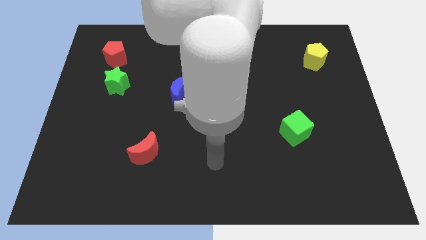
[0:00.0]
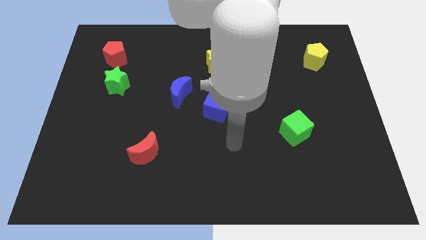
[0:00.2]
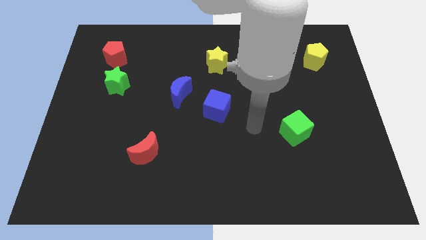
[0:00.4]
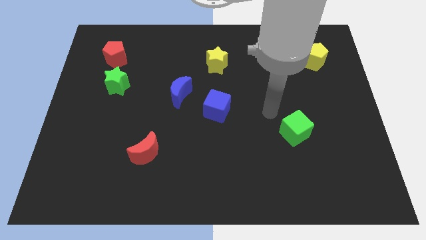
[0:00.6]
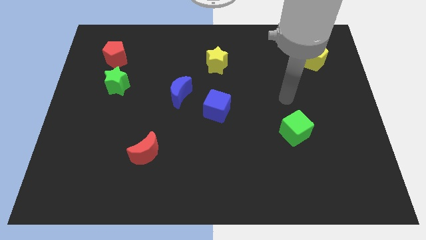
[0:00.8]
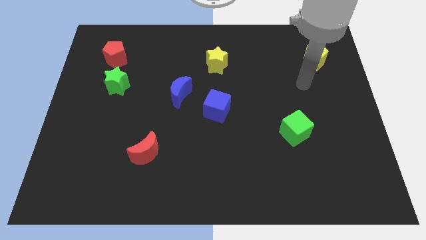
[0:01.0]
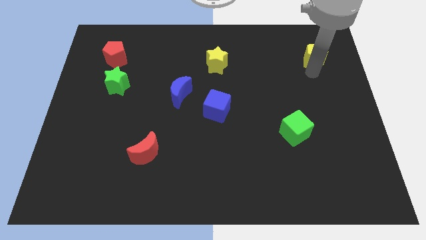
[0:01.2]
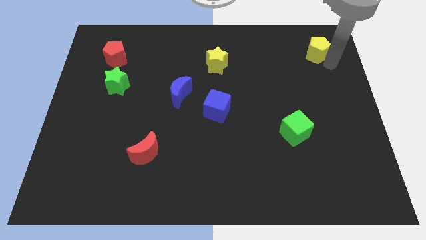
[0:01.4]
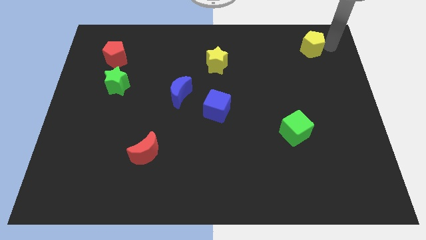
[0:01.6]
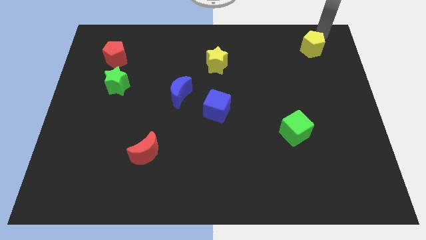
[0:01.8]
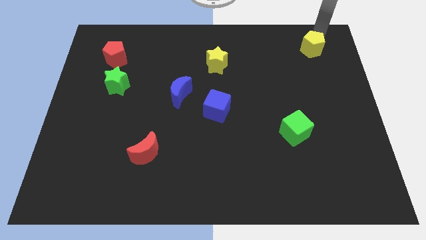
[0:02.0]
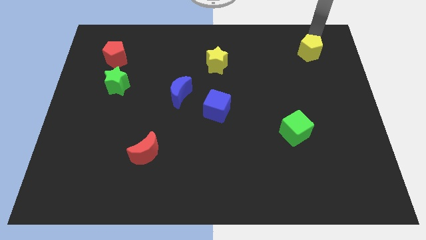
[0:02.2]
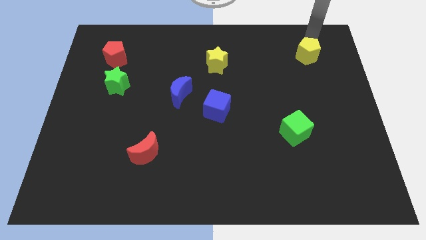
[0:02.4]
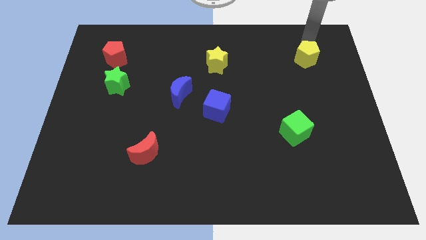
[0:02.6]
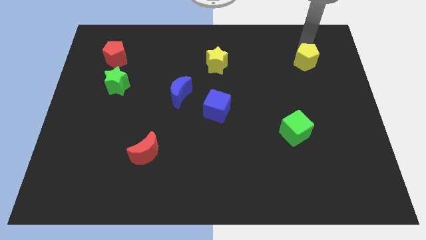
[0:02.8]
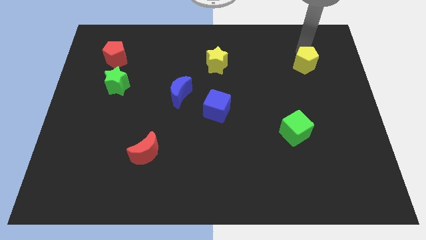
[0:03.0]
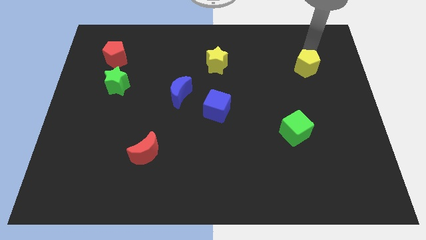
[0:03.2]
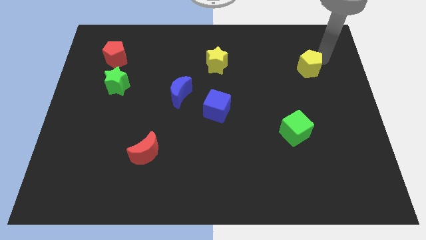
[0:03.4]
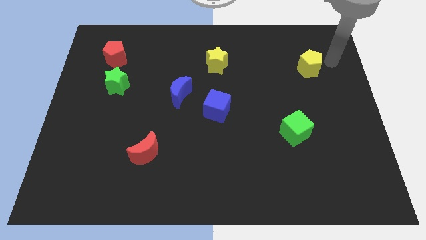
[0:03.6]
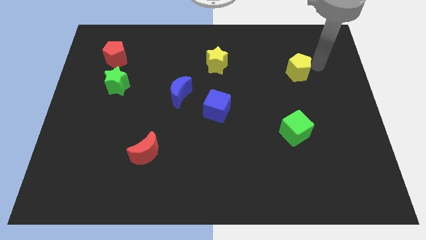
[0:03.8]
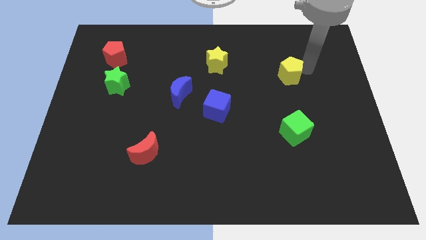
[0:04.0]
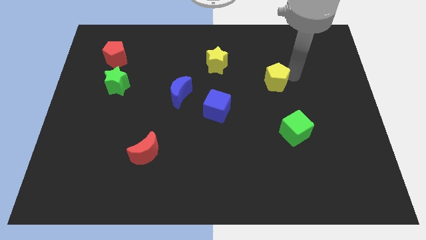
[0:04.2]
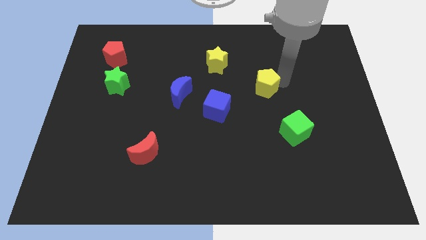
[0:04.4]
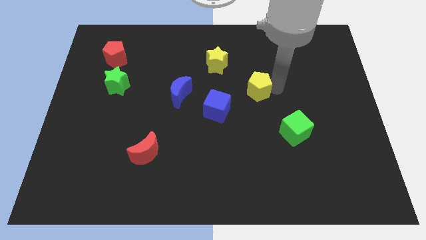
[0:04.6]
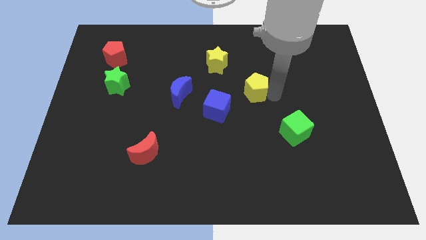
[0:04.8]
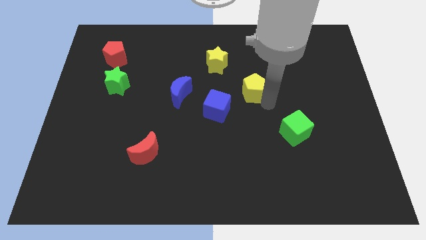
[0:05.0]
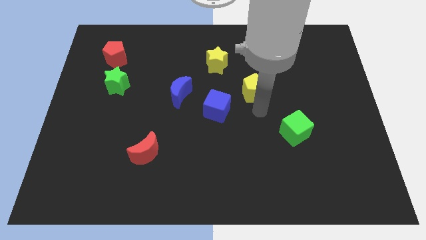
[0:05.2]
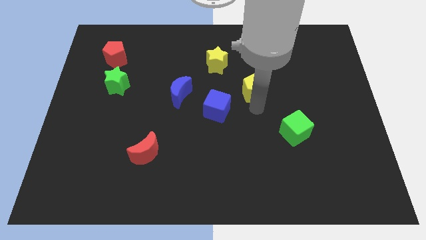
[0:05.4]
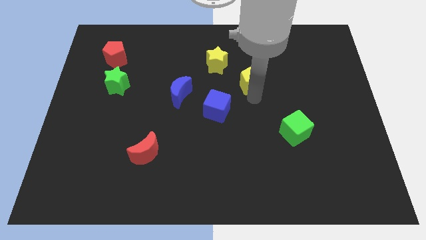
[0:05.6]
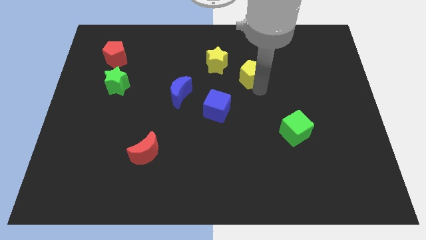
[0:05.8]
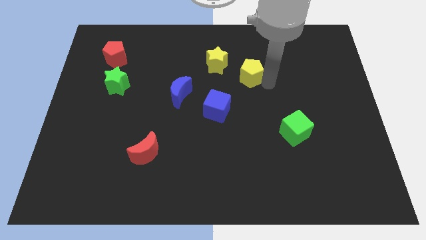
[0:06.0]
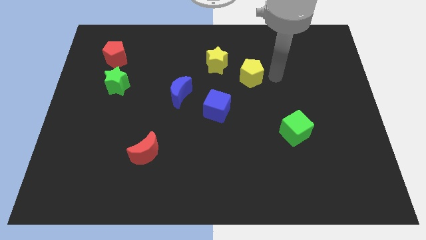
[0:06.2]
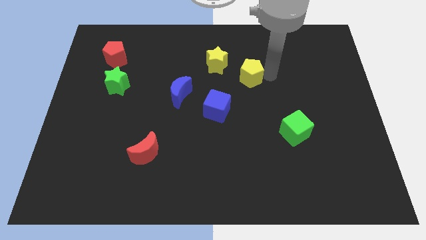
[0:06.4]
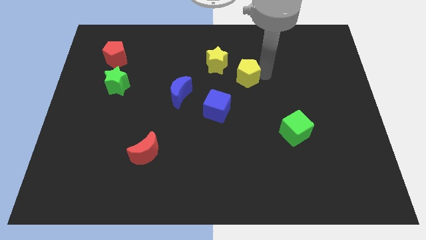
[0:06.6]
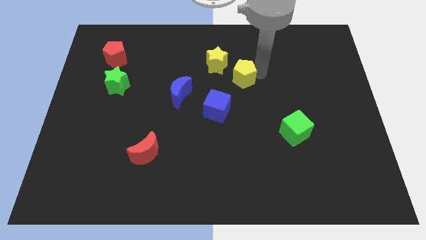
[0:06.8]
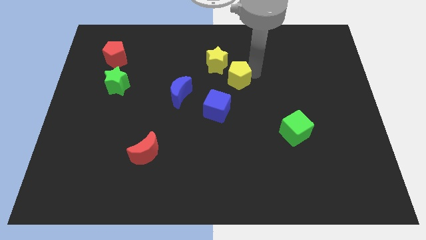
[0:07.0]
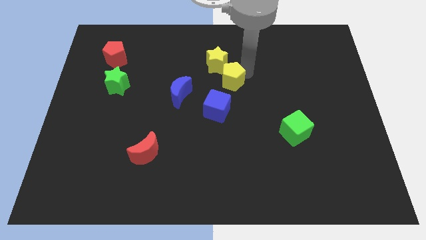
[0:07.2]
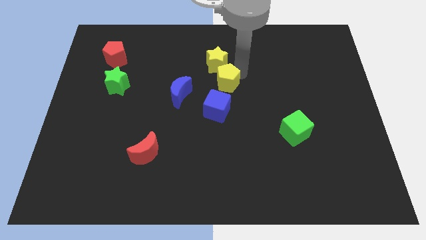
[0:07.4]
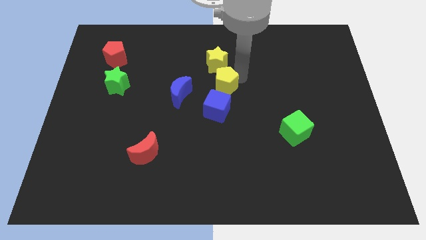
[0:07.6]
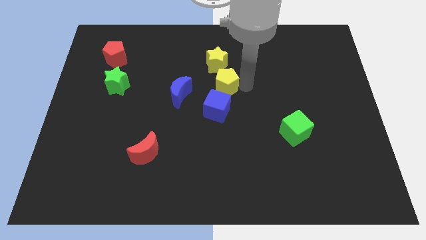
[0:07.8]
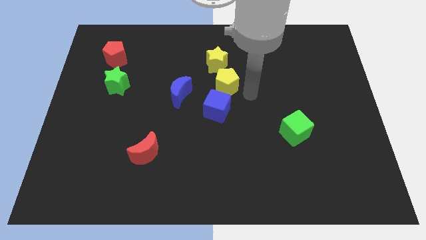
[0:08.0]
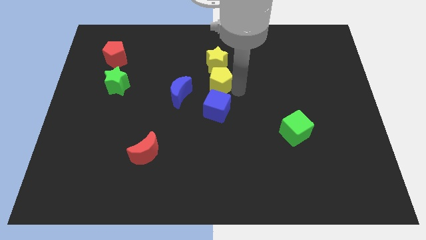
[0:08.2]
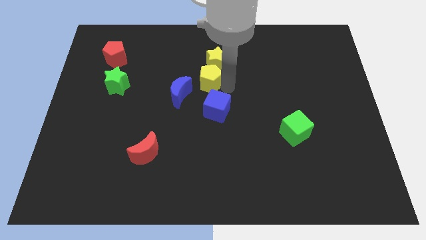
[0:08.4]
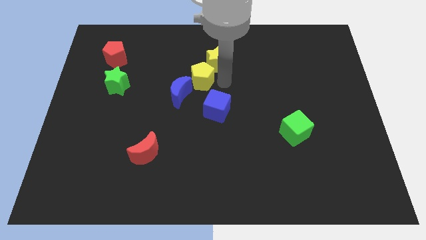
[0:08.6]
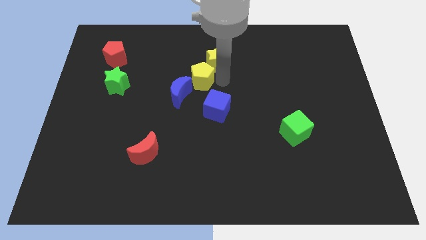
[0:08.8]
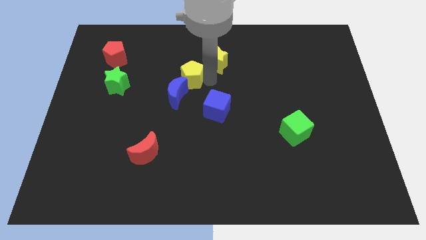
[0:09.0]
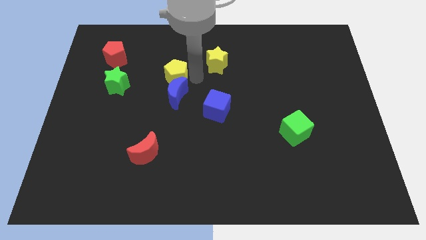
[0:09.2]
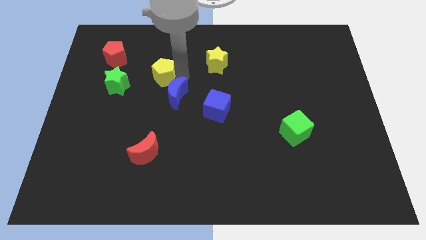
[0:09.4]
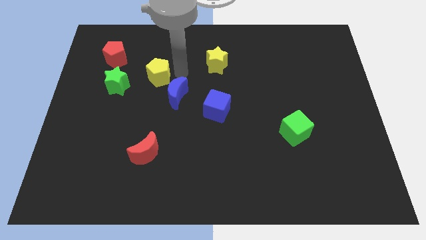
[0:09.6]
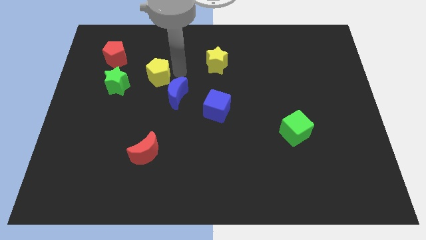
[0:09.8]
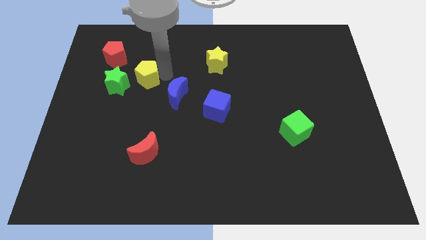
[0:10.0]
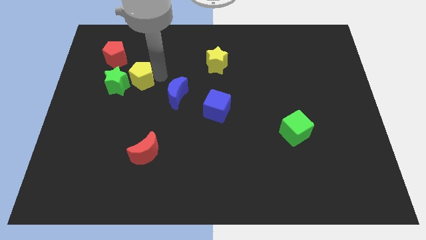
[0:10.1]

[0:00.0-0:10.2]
move the yellow pentagon close to the green star

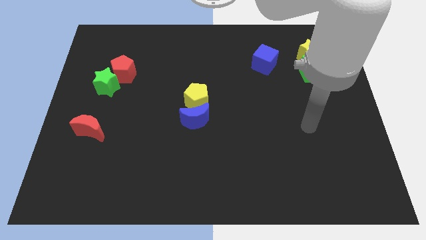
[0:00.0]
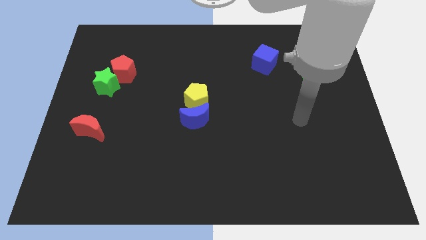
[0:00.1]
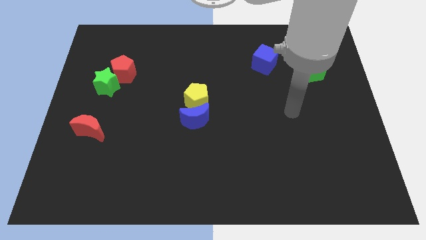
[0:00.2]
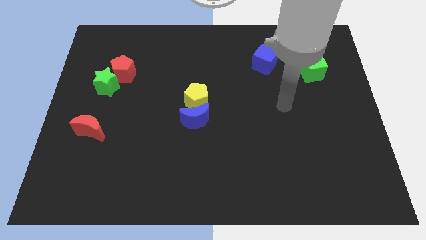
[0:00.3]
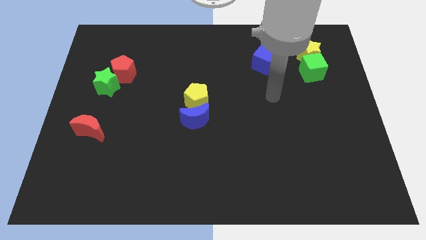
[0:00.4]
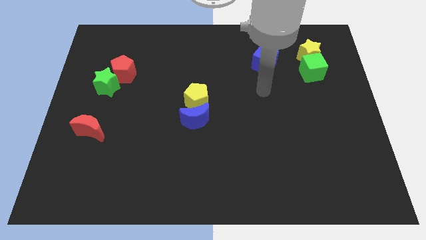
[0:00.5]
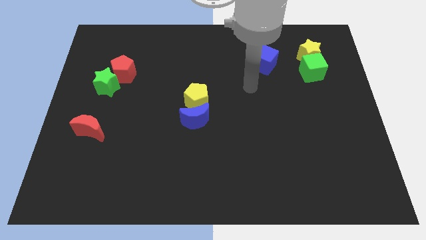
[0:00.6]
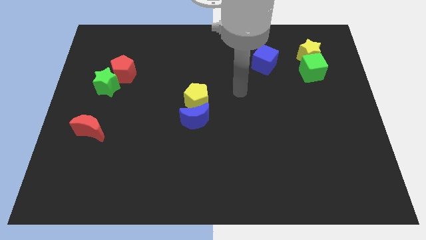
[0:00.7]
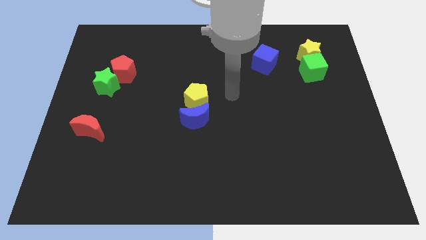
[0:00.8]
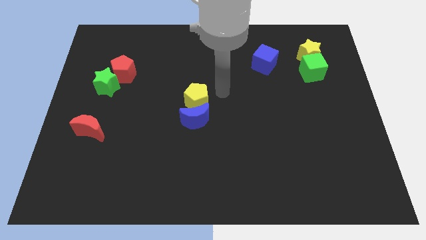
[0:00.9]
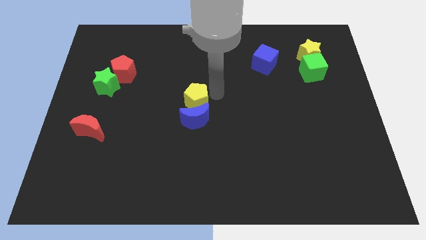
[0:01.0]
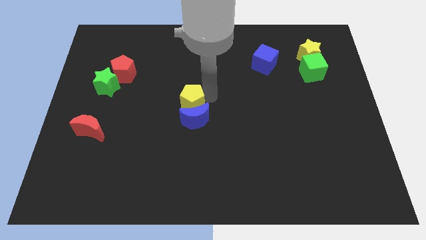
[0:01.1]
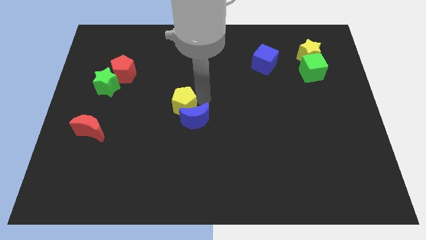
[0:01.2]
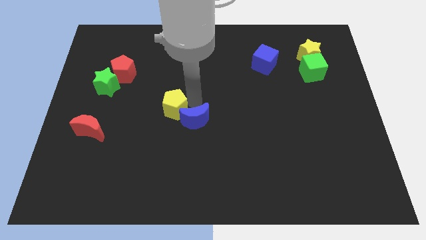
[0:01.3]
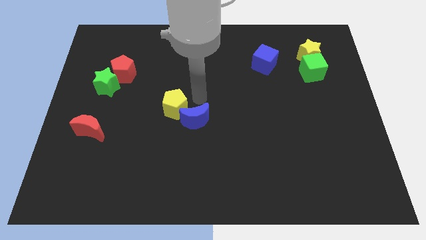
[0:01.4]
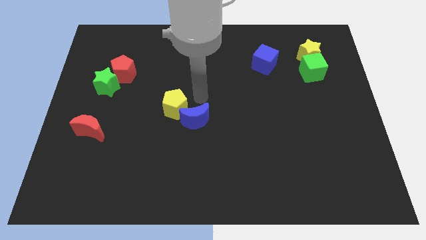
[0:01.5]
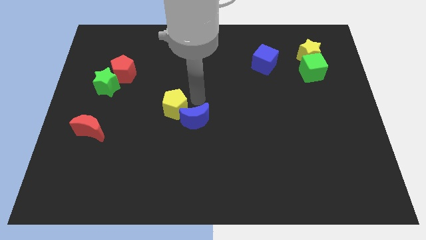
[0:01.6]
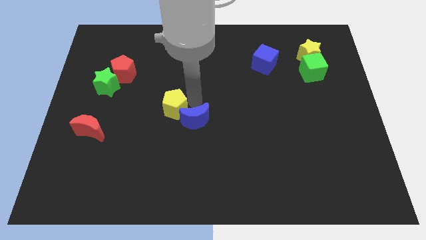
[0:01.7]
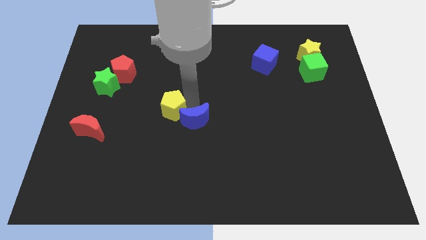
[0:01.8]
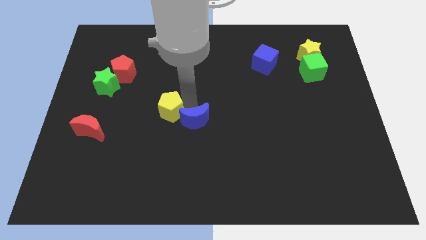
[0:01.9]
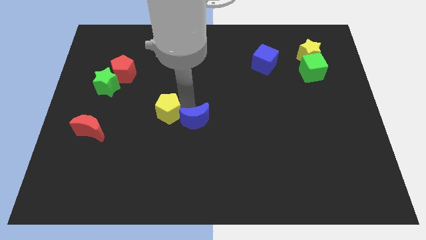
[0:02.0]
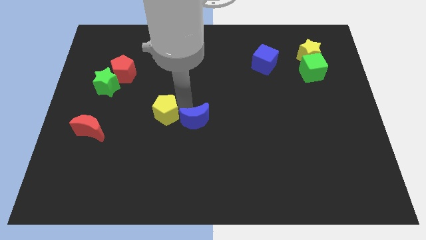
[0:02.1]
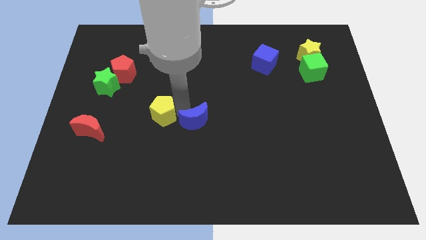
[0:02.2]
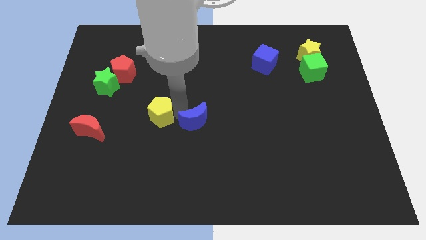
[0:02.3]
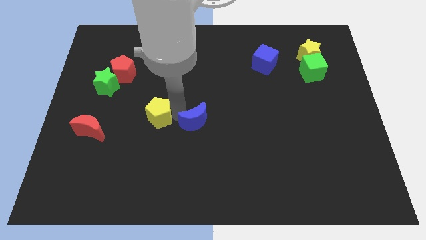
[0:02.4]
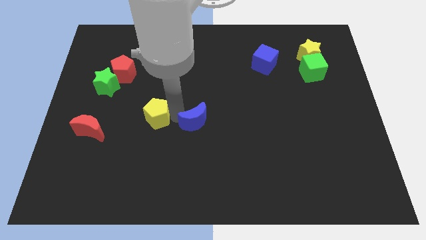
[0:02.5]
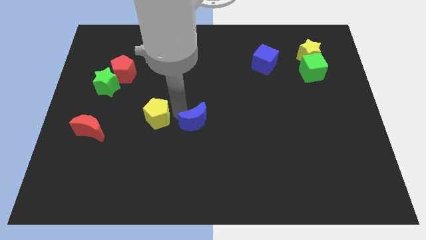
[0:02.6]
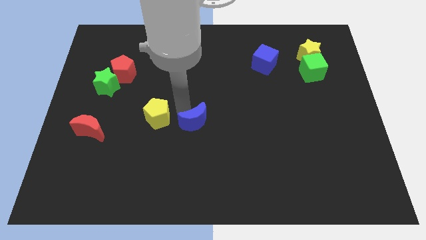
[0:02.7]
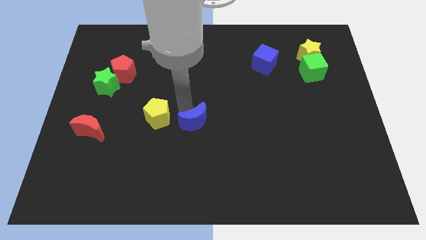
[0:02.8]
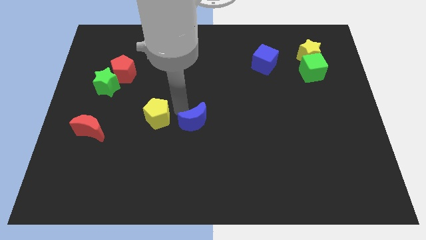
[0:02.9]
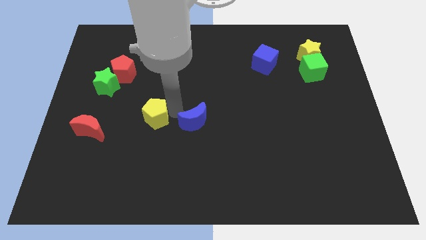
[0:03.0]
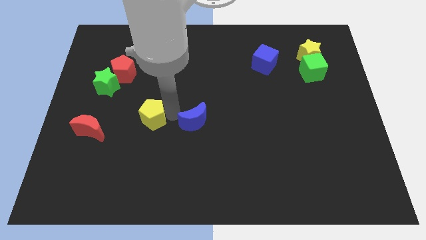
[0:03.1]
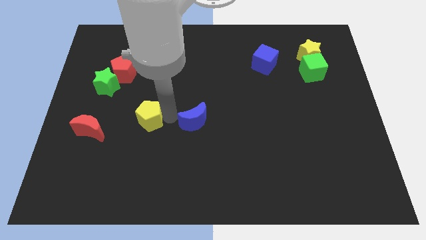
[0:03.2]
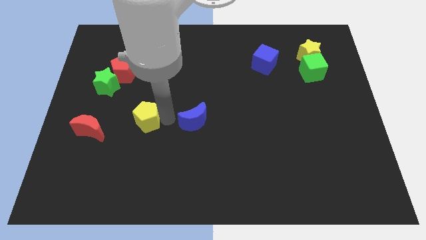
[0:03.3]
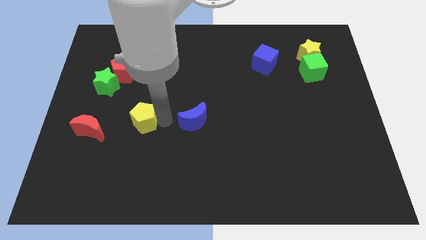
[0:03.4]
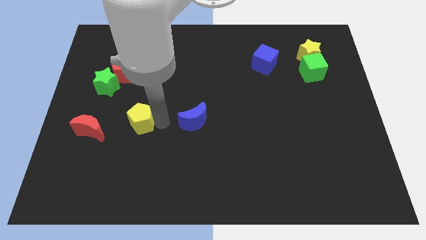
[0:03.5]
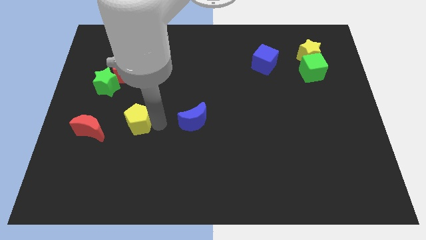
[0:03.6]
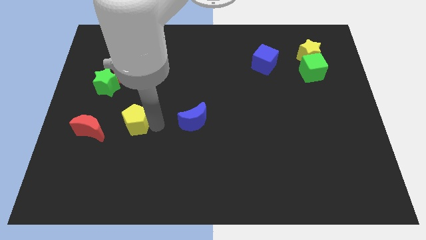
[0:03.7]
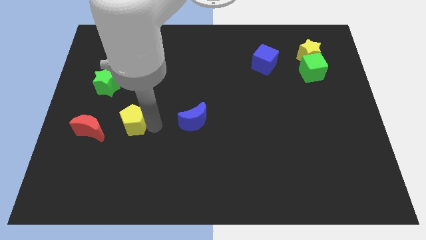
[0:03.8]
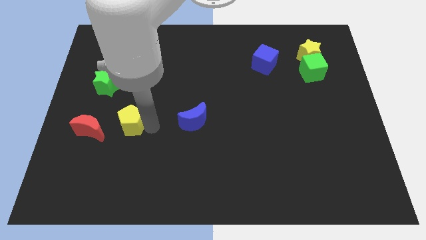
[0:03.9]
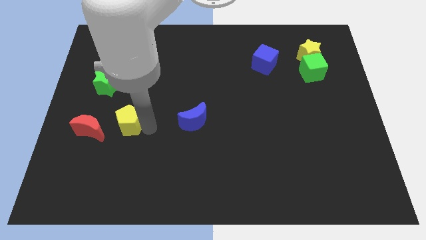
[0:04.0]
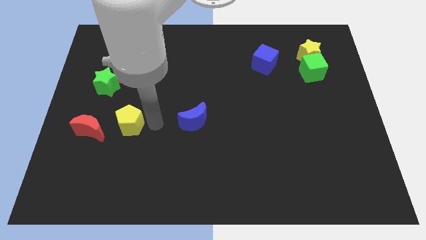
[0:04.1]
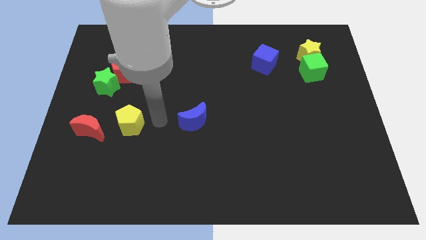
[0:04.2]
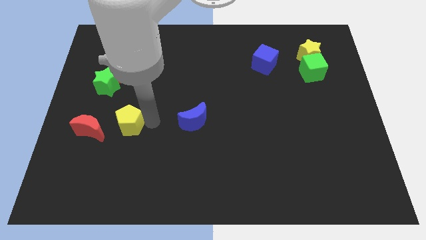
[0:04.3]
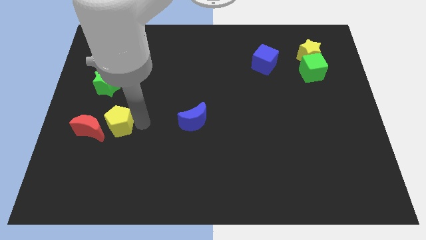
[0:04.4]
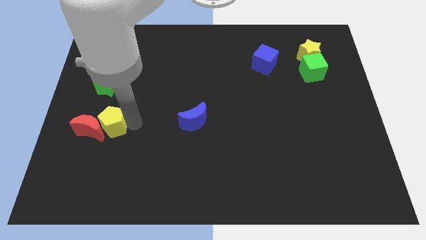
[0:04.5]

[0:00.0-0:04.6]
slide the yellow pentagon next to the red moon
